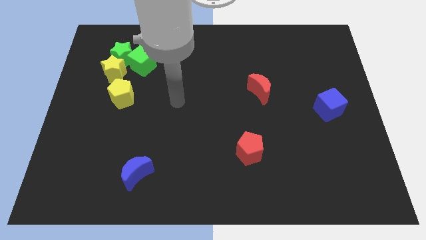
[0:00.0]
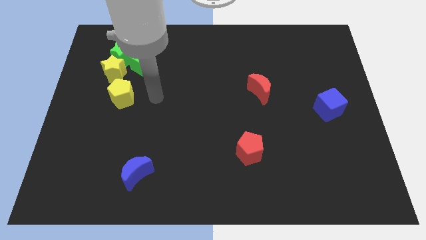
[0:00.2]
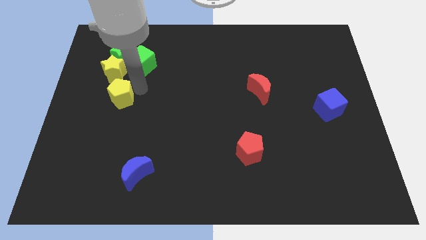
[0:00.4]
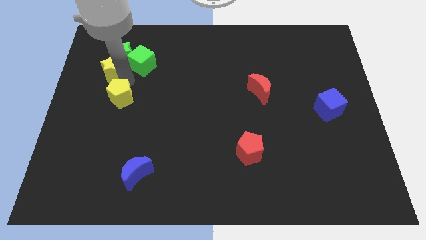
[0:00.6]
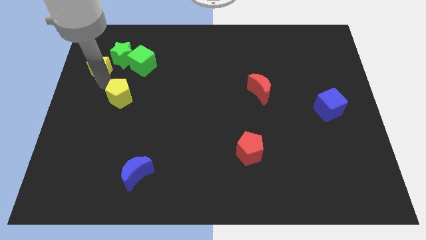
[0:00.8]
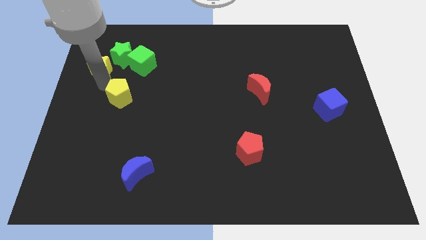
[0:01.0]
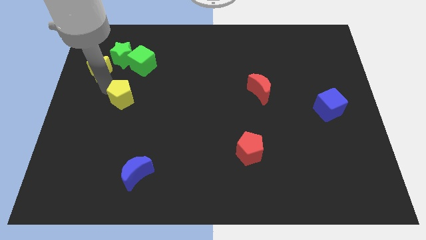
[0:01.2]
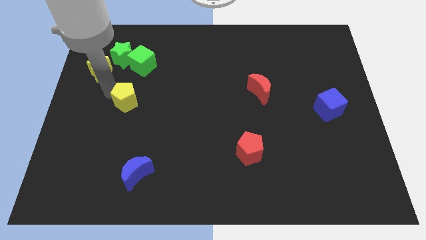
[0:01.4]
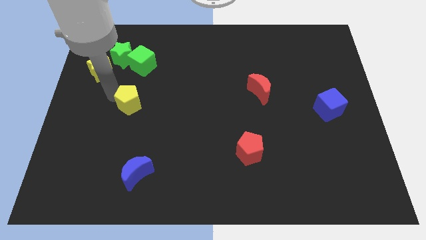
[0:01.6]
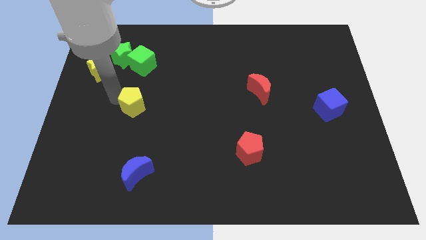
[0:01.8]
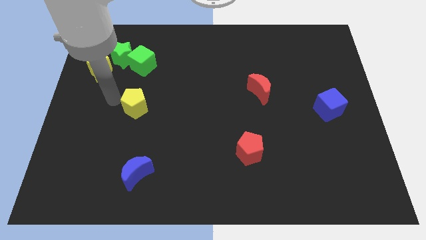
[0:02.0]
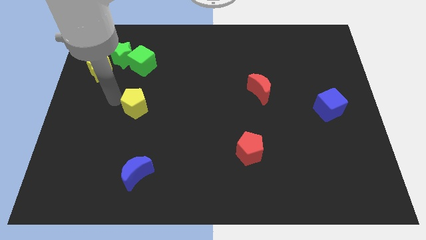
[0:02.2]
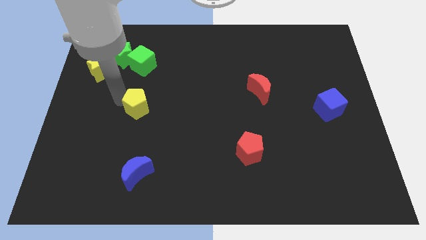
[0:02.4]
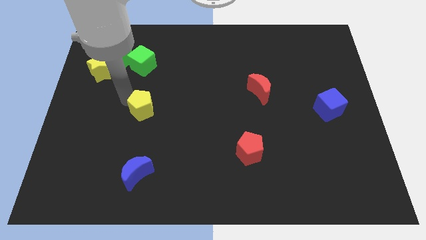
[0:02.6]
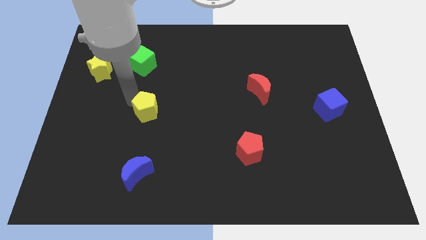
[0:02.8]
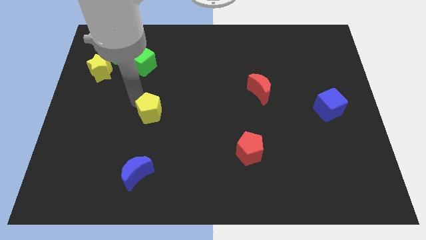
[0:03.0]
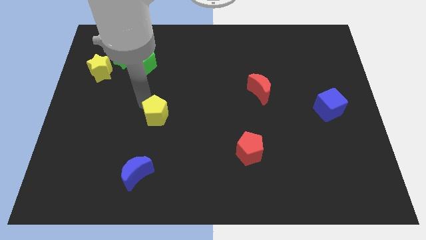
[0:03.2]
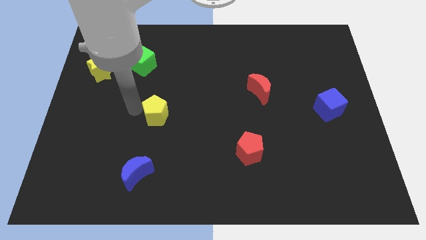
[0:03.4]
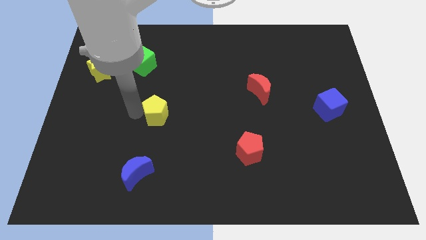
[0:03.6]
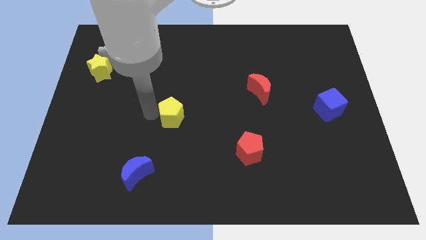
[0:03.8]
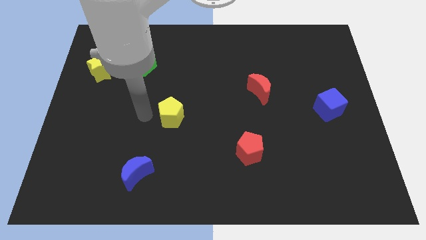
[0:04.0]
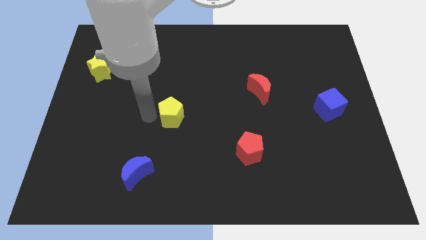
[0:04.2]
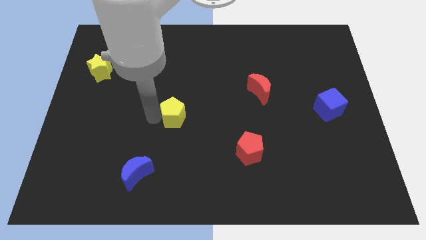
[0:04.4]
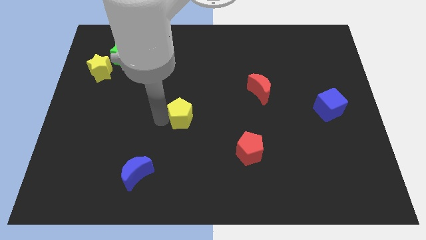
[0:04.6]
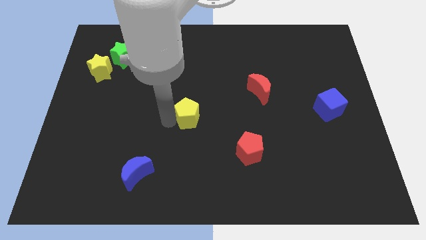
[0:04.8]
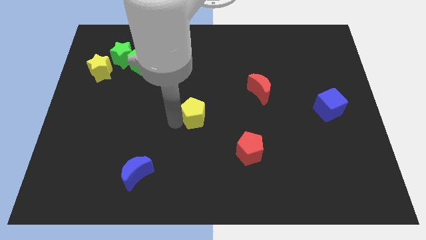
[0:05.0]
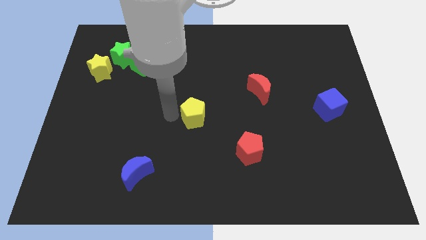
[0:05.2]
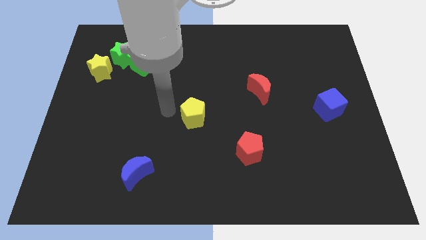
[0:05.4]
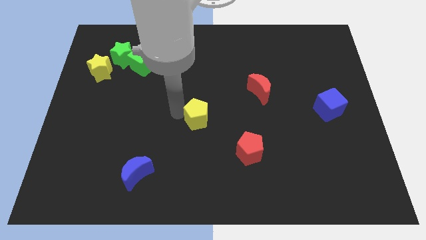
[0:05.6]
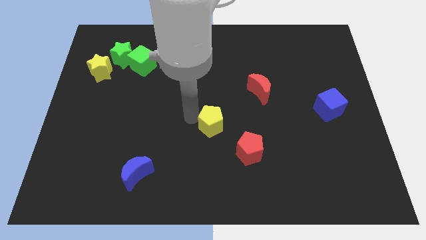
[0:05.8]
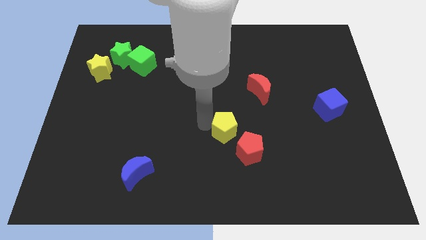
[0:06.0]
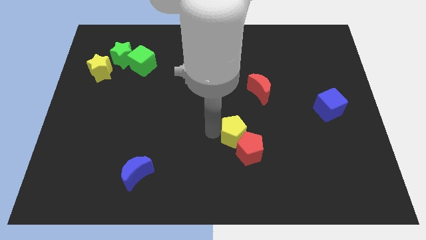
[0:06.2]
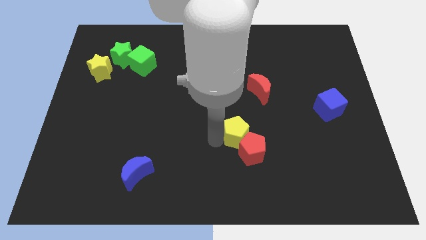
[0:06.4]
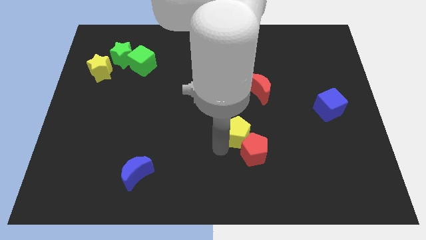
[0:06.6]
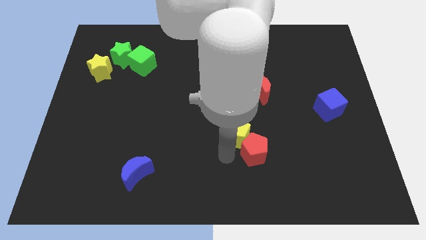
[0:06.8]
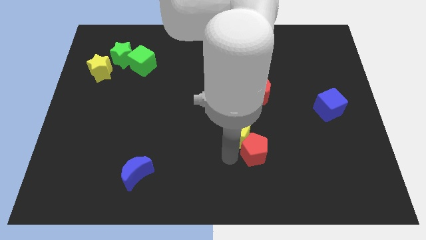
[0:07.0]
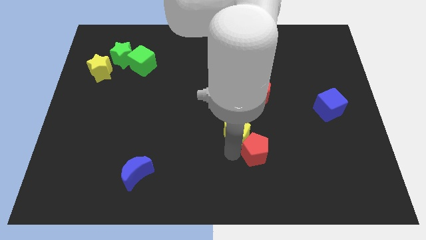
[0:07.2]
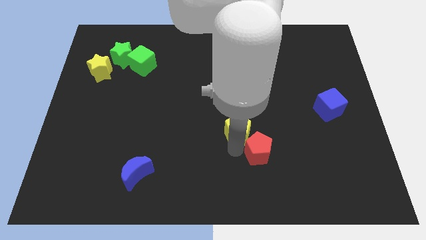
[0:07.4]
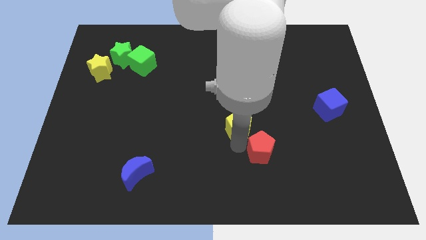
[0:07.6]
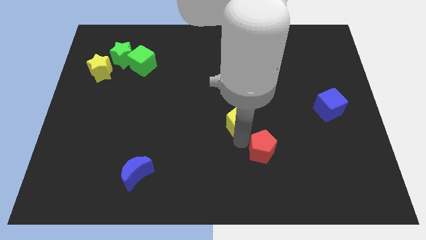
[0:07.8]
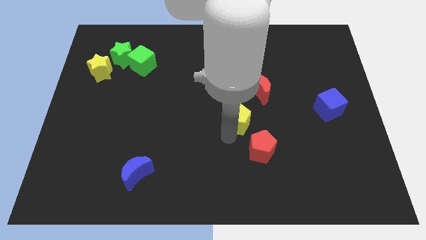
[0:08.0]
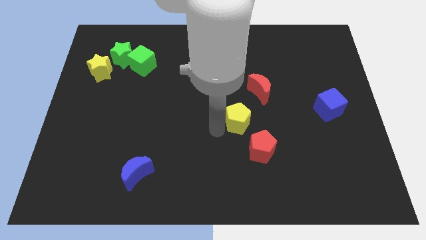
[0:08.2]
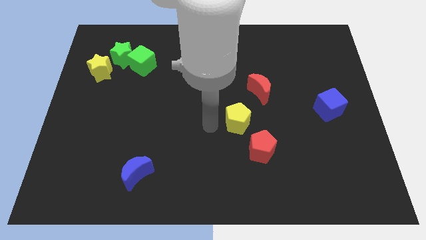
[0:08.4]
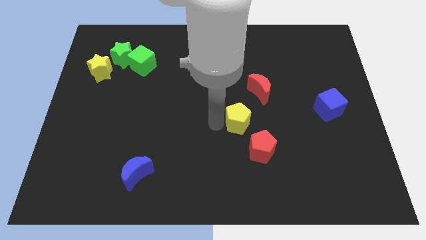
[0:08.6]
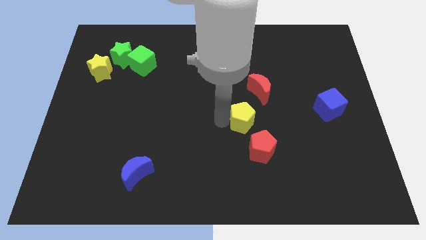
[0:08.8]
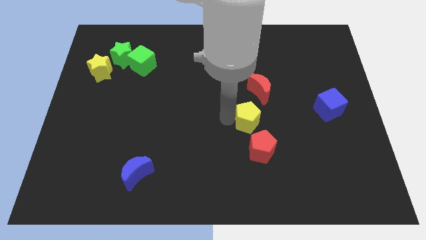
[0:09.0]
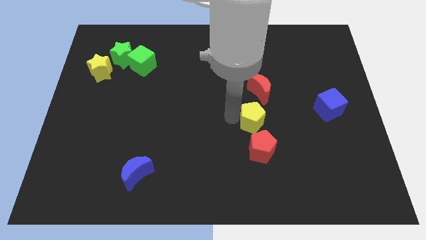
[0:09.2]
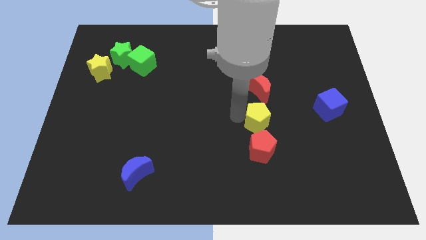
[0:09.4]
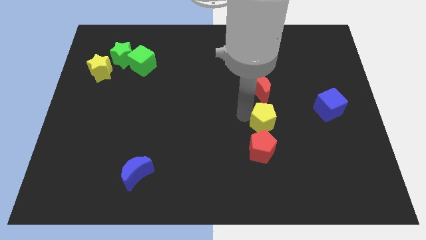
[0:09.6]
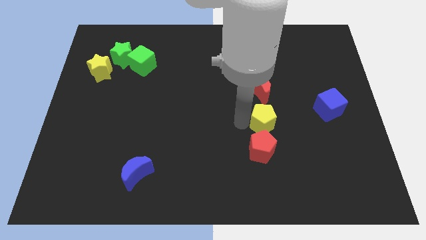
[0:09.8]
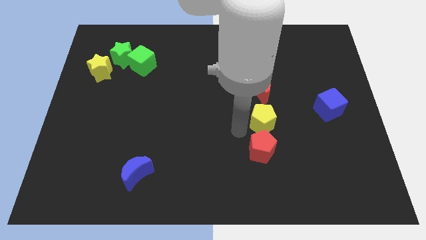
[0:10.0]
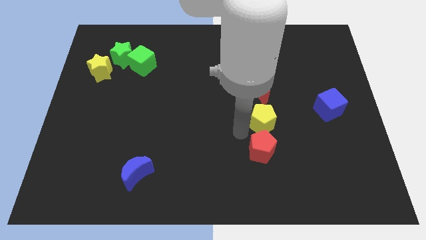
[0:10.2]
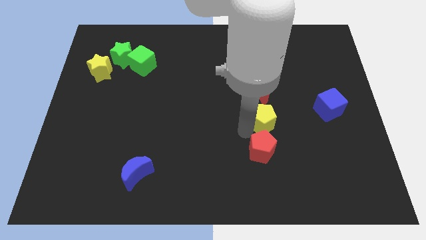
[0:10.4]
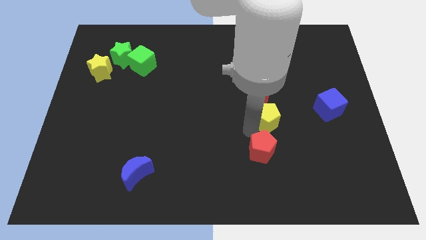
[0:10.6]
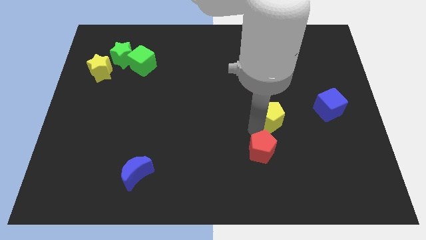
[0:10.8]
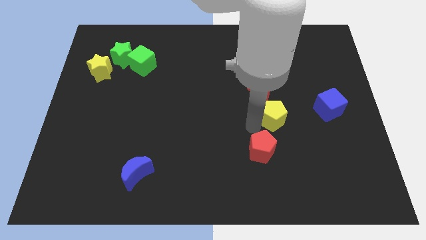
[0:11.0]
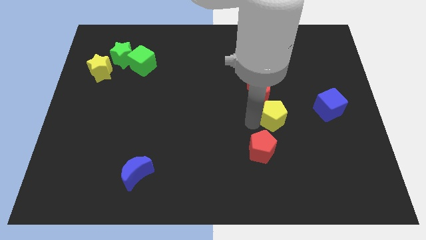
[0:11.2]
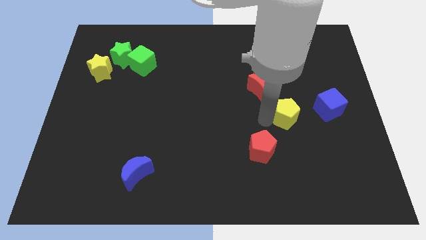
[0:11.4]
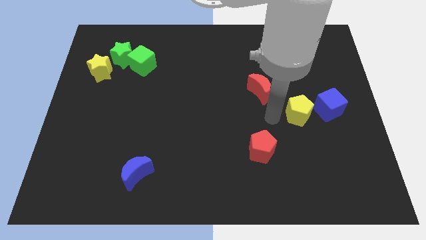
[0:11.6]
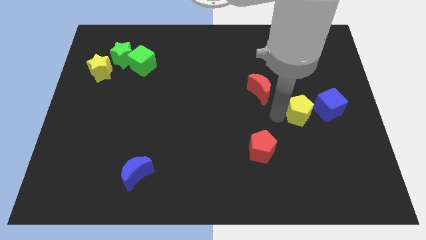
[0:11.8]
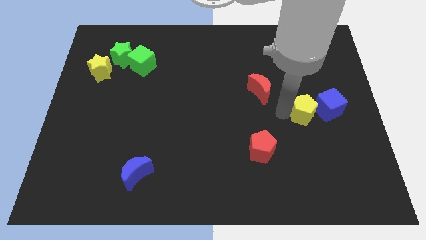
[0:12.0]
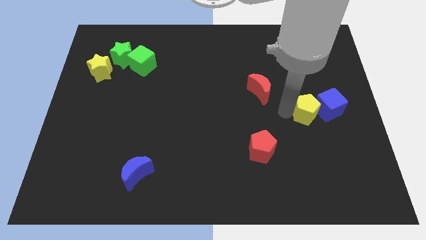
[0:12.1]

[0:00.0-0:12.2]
put the yellow pentagon next to the blue cube
